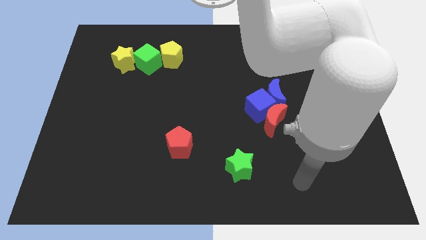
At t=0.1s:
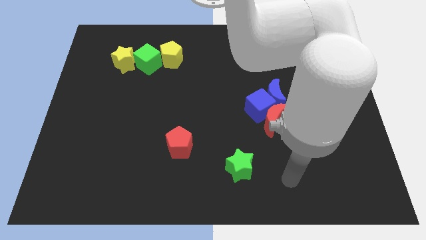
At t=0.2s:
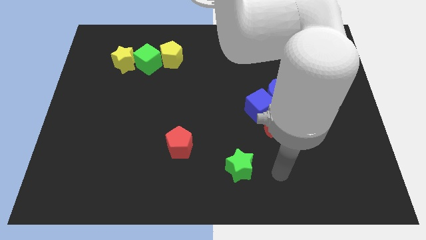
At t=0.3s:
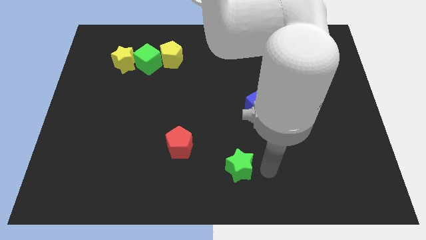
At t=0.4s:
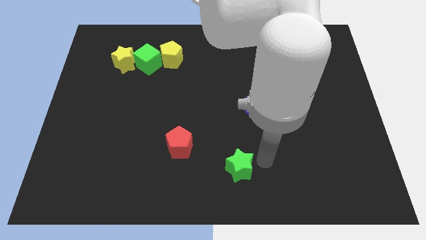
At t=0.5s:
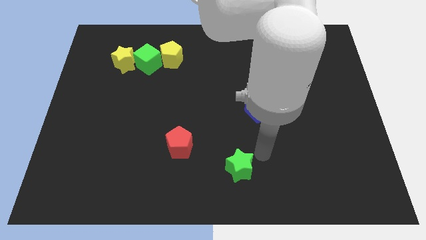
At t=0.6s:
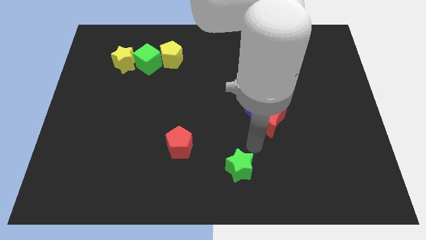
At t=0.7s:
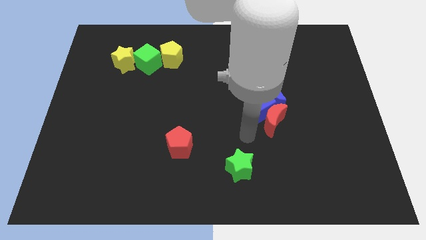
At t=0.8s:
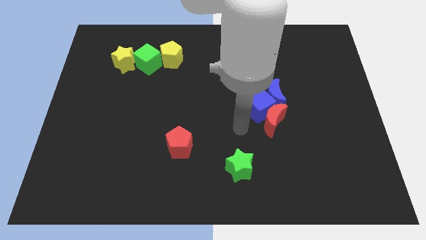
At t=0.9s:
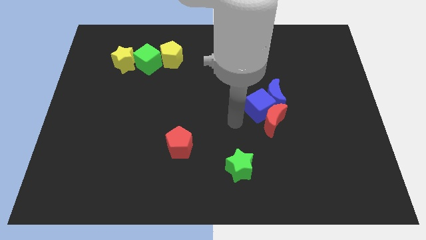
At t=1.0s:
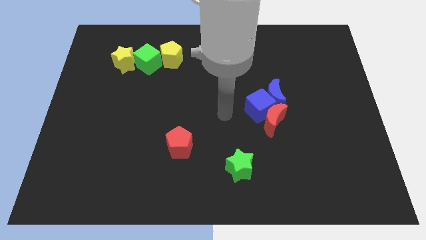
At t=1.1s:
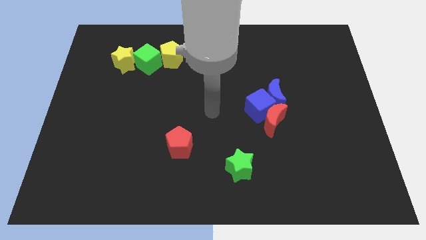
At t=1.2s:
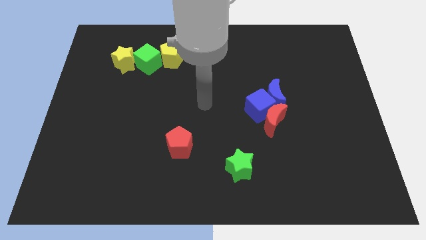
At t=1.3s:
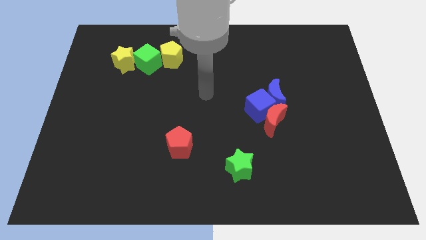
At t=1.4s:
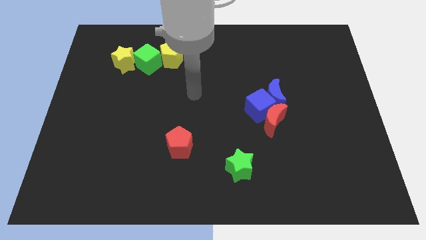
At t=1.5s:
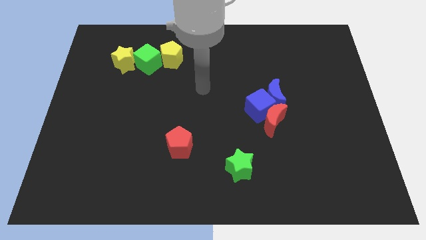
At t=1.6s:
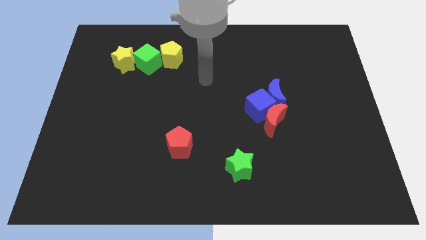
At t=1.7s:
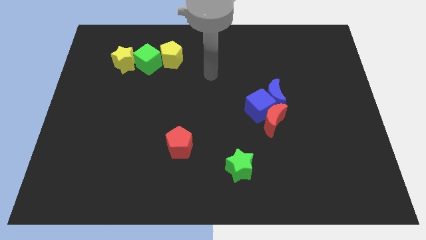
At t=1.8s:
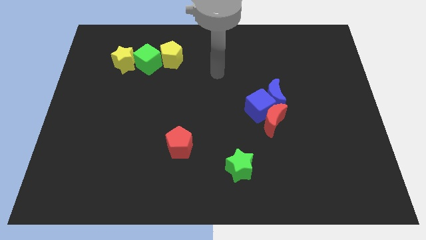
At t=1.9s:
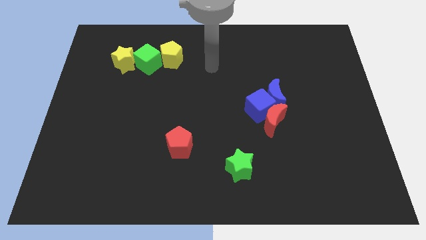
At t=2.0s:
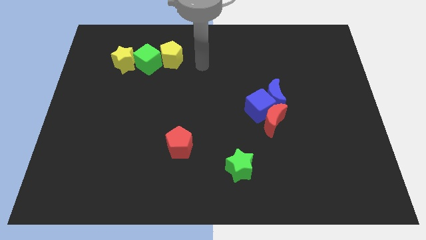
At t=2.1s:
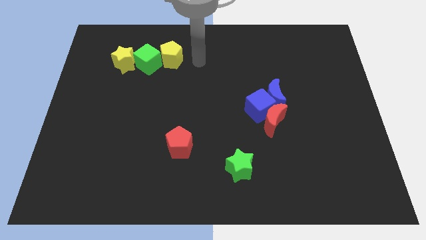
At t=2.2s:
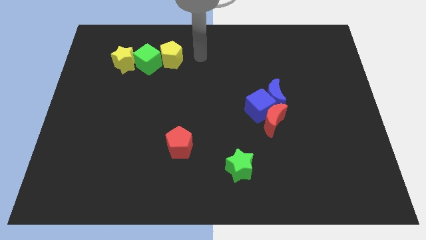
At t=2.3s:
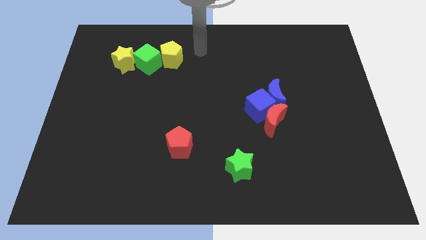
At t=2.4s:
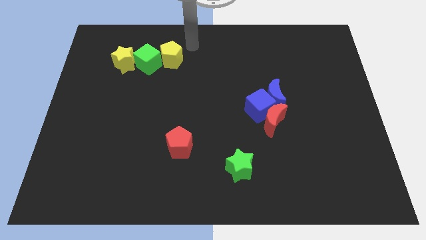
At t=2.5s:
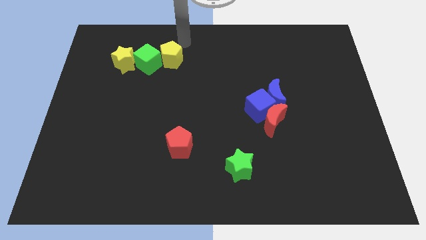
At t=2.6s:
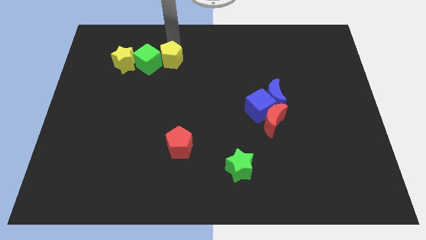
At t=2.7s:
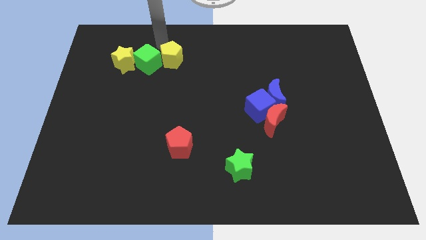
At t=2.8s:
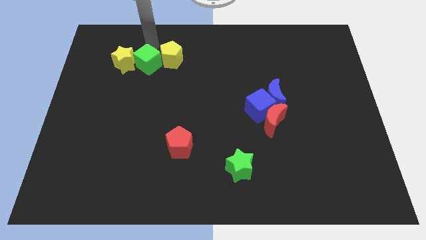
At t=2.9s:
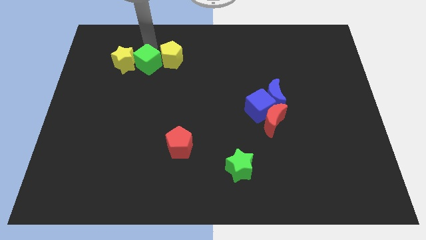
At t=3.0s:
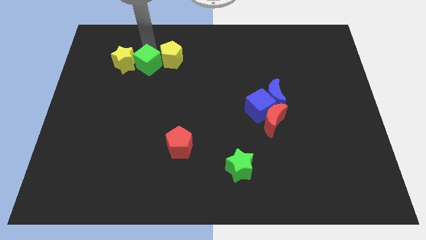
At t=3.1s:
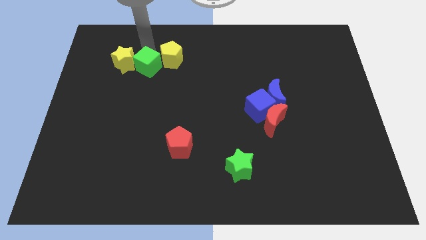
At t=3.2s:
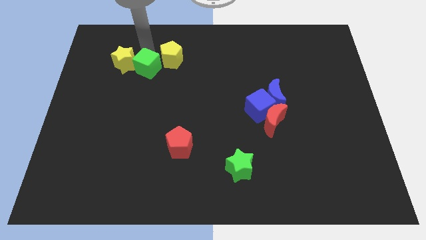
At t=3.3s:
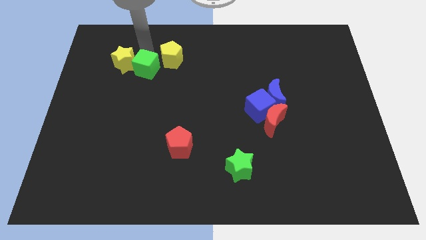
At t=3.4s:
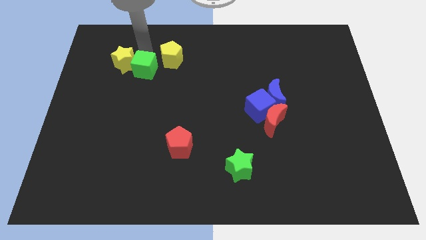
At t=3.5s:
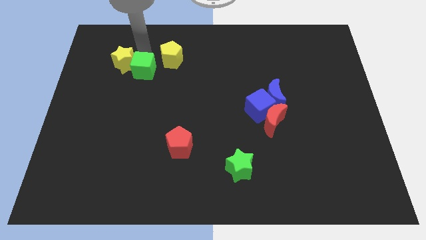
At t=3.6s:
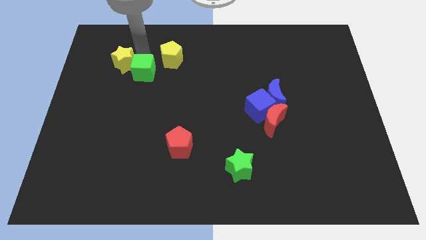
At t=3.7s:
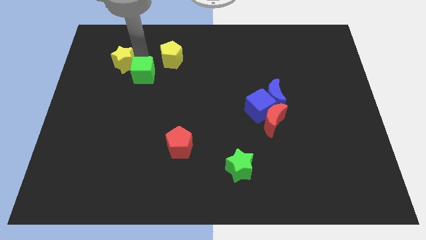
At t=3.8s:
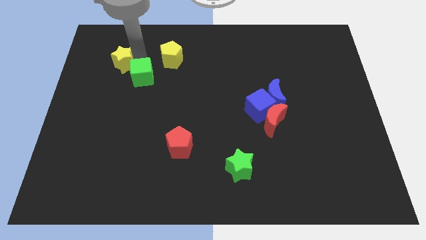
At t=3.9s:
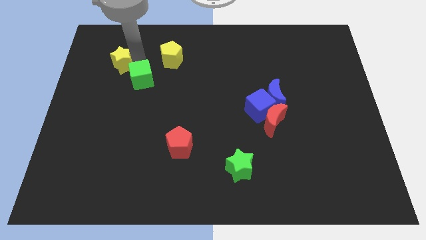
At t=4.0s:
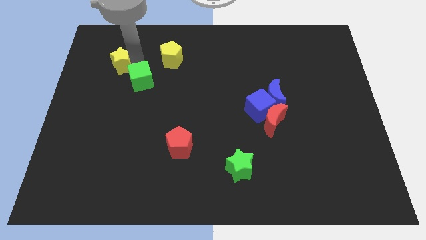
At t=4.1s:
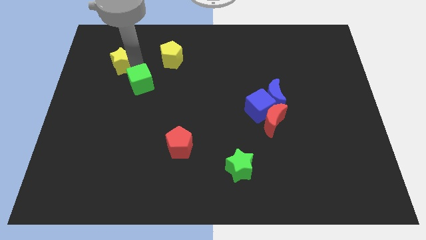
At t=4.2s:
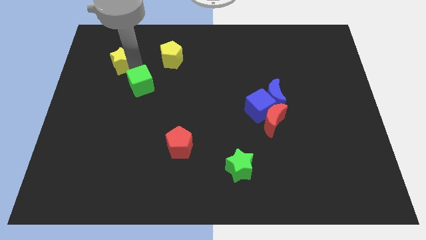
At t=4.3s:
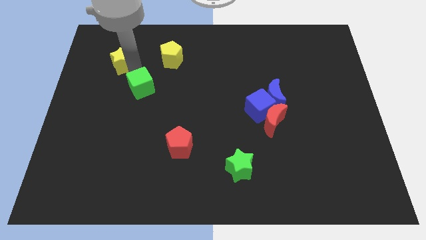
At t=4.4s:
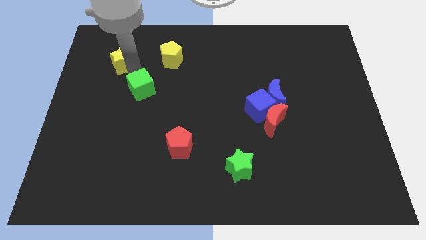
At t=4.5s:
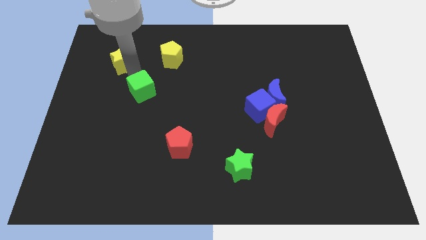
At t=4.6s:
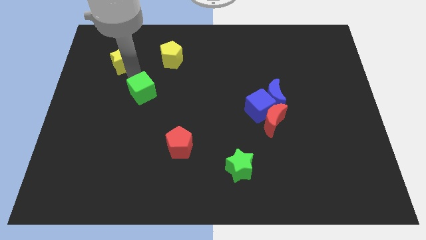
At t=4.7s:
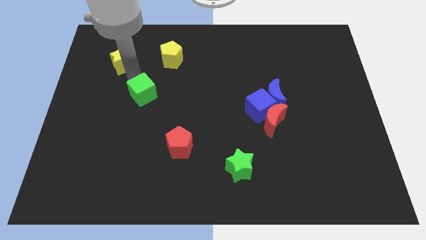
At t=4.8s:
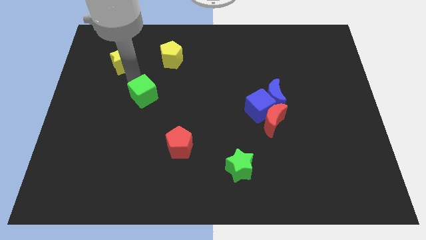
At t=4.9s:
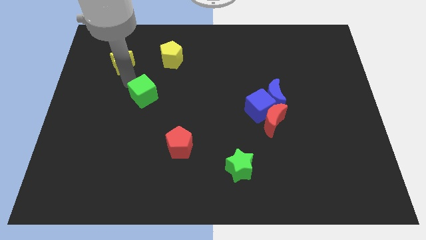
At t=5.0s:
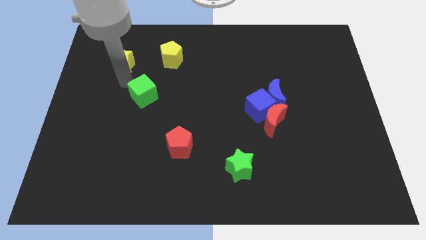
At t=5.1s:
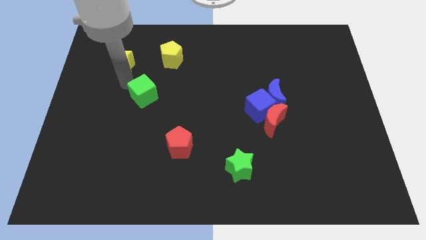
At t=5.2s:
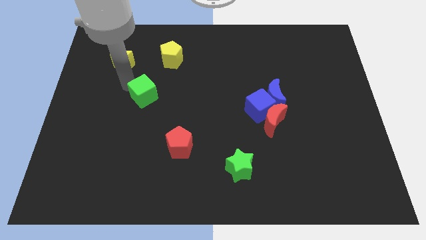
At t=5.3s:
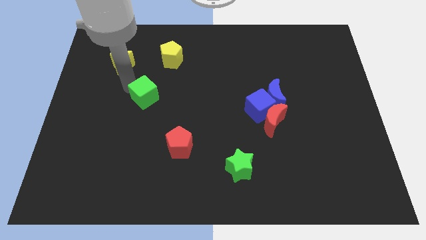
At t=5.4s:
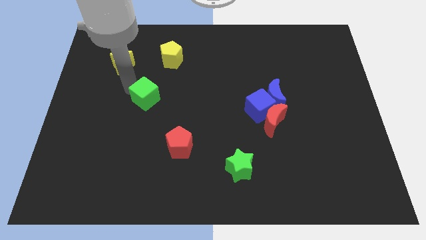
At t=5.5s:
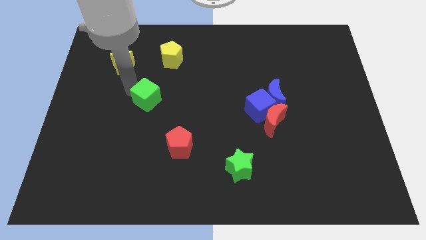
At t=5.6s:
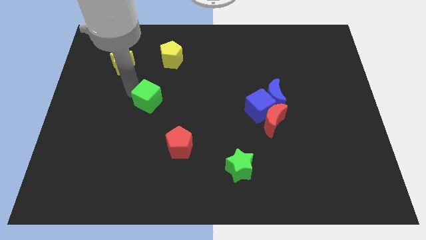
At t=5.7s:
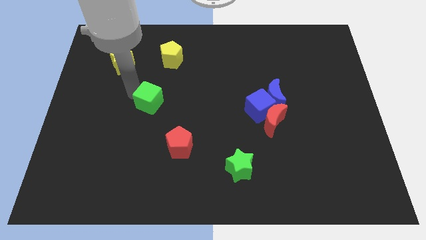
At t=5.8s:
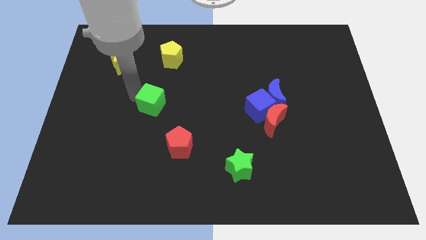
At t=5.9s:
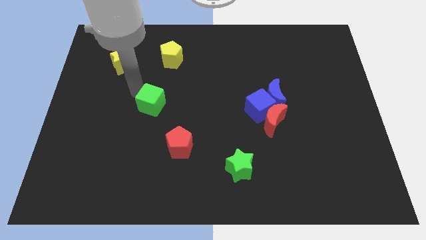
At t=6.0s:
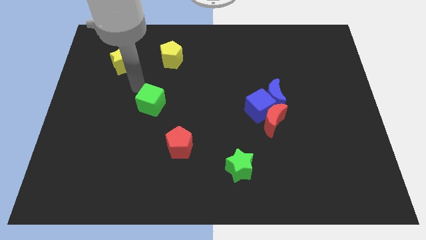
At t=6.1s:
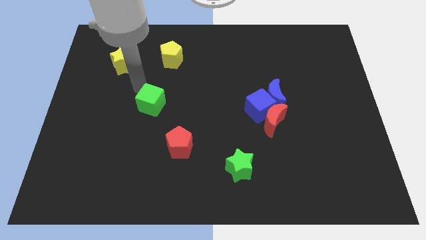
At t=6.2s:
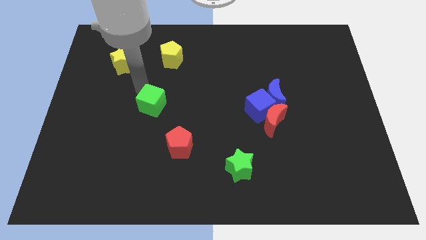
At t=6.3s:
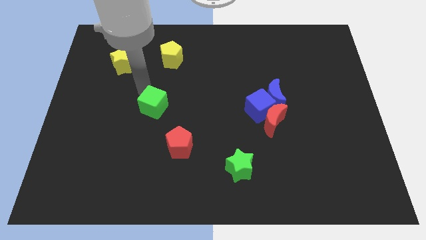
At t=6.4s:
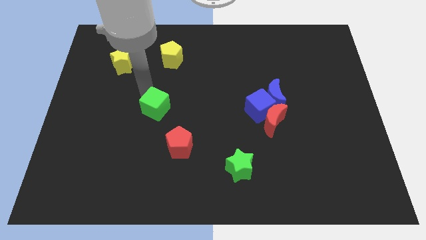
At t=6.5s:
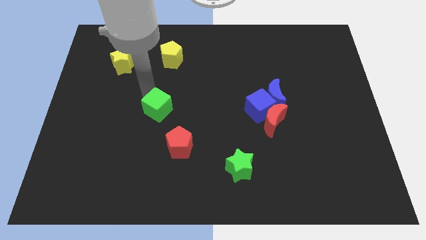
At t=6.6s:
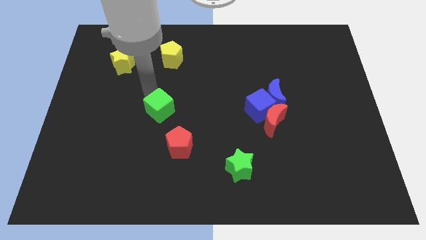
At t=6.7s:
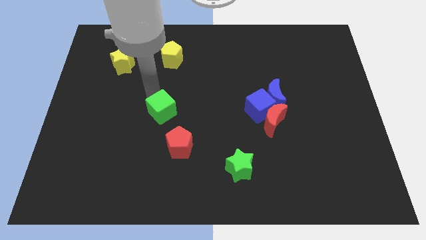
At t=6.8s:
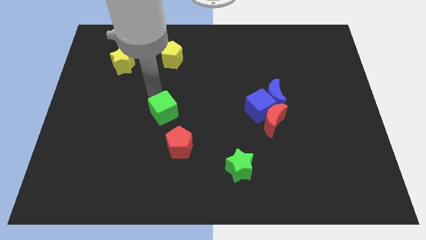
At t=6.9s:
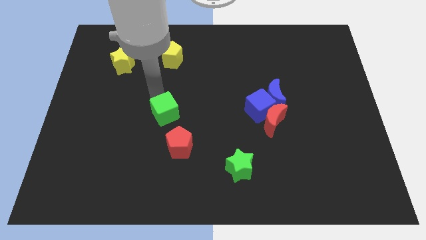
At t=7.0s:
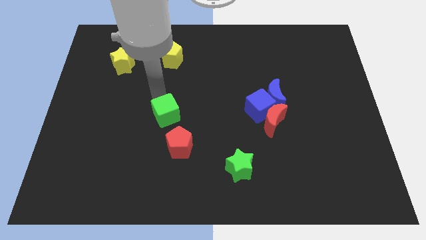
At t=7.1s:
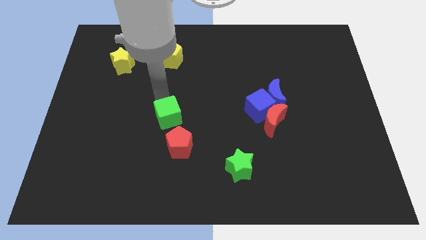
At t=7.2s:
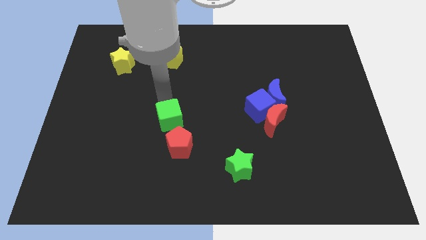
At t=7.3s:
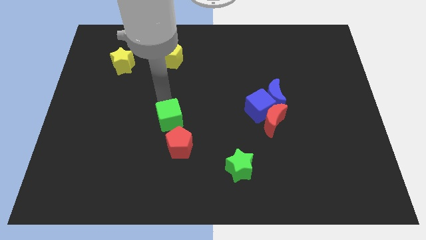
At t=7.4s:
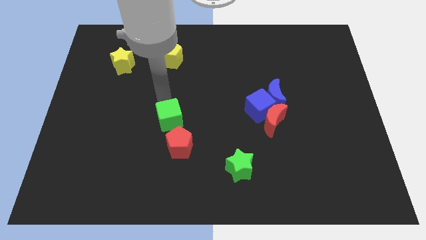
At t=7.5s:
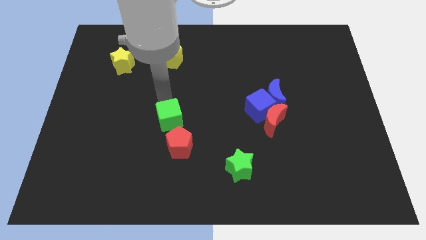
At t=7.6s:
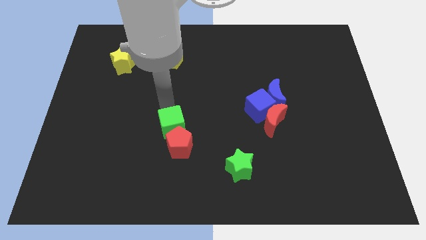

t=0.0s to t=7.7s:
push the green cube next to the red pentagon
